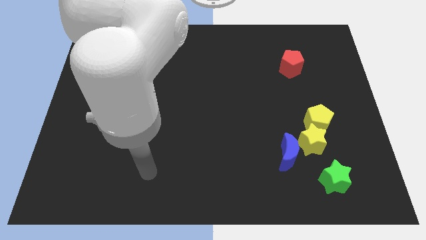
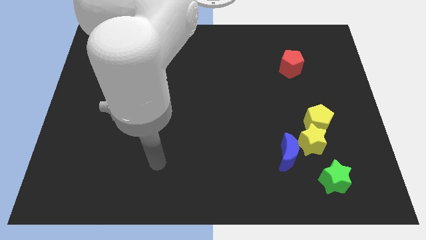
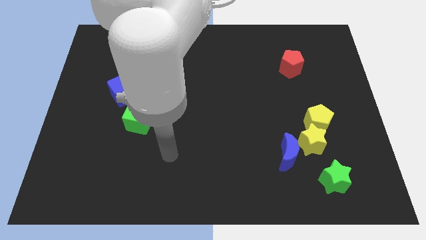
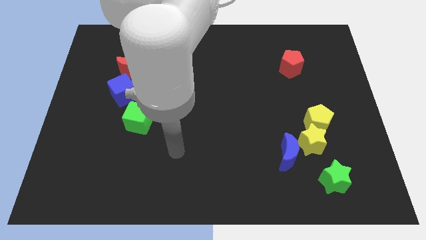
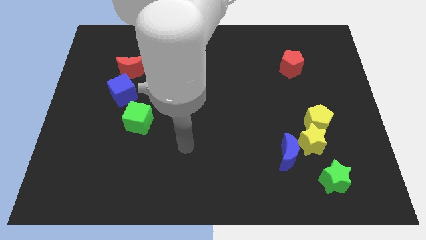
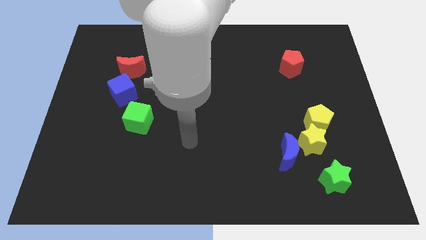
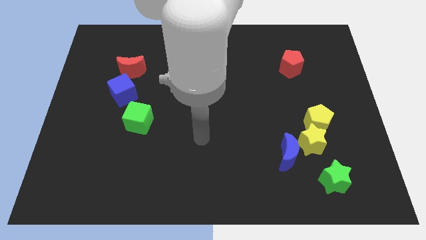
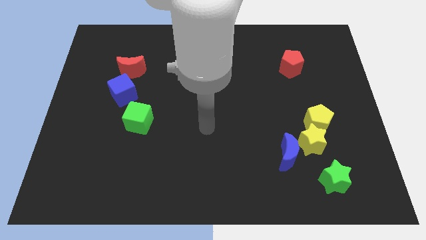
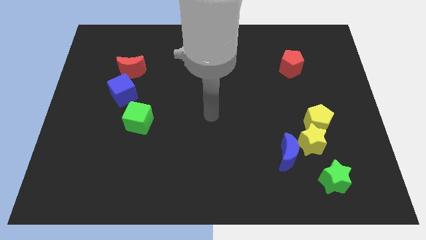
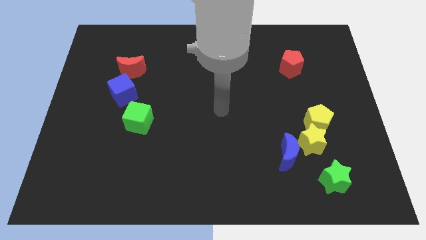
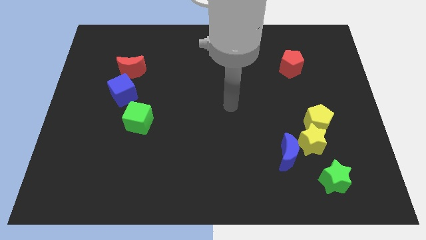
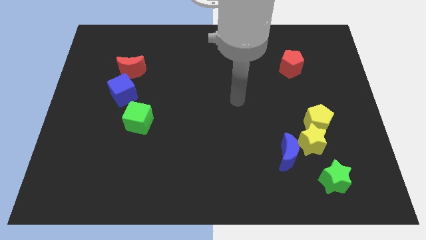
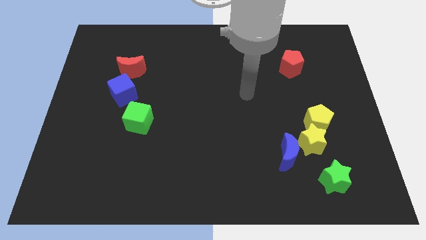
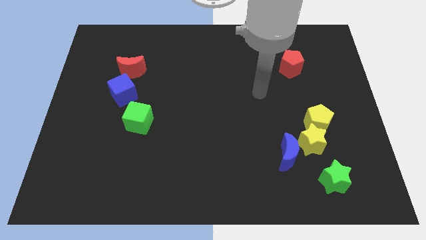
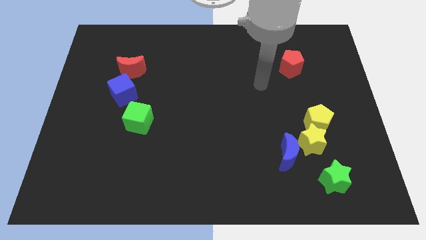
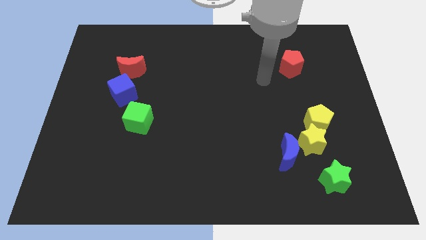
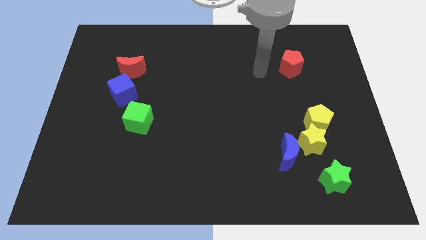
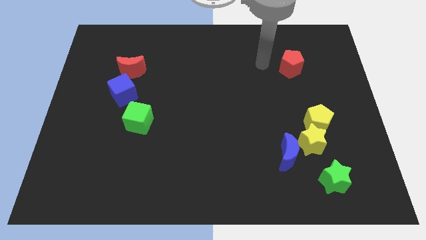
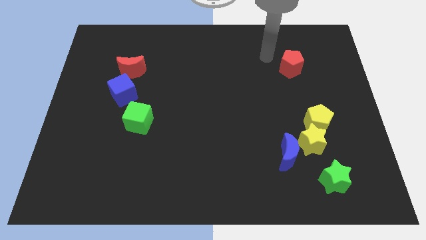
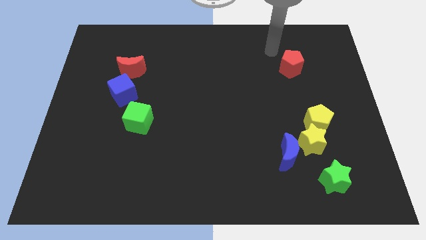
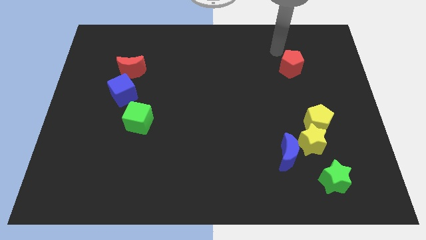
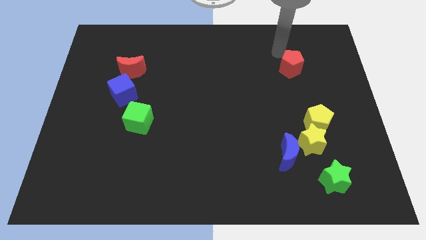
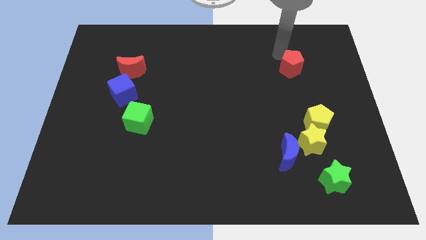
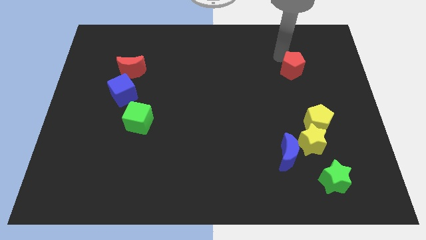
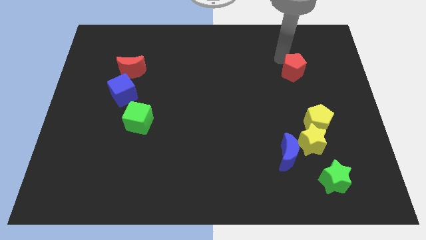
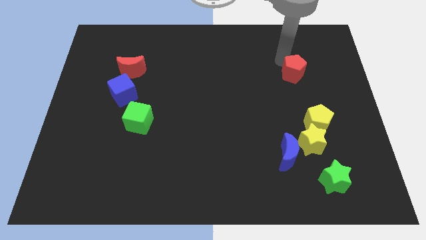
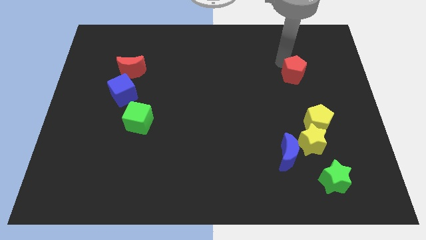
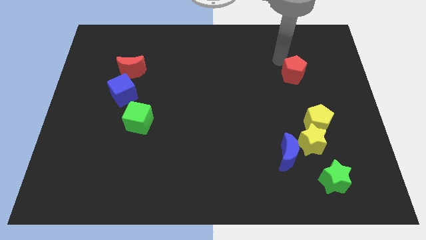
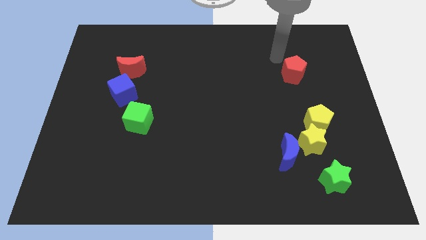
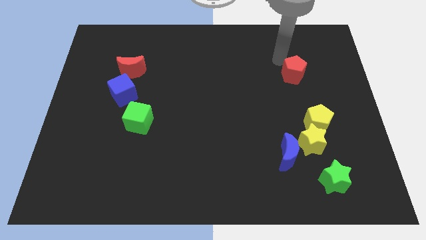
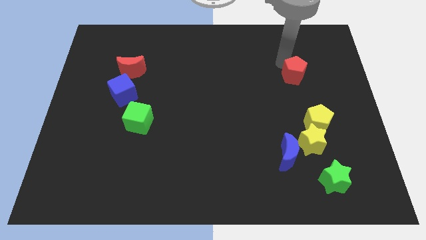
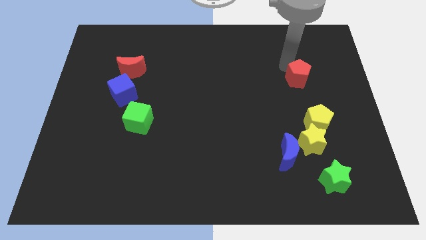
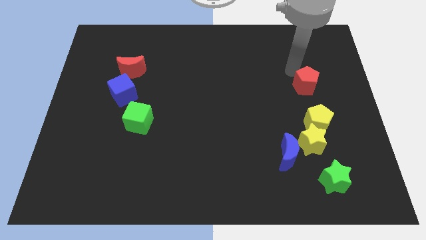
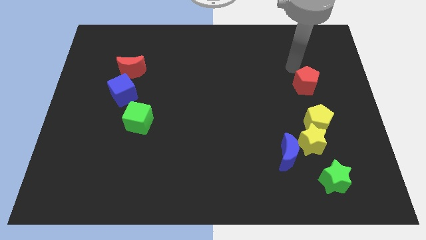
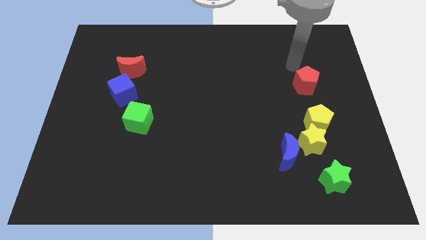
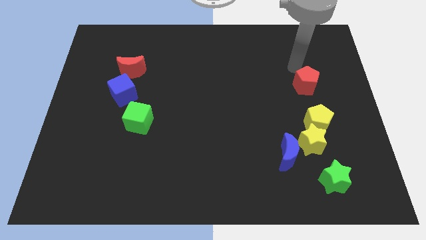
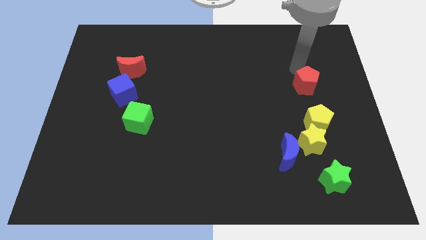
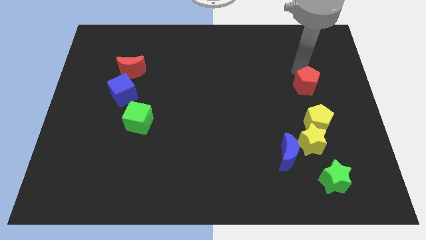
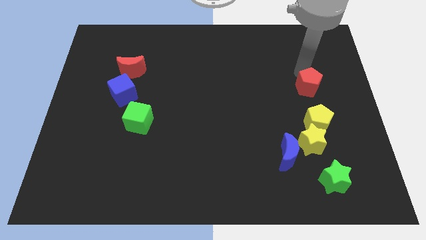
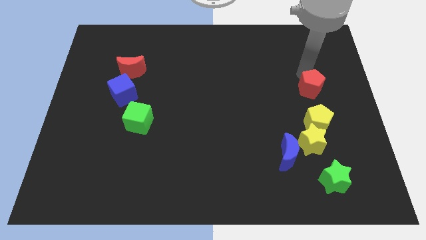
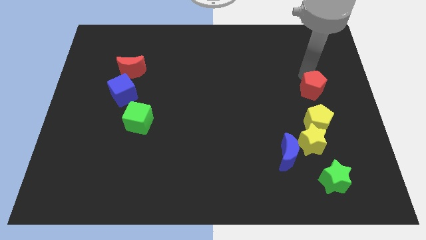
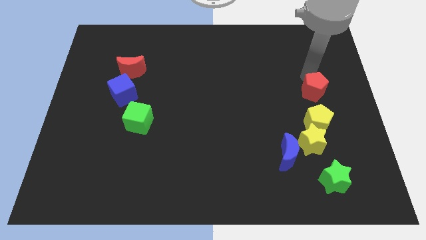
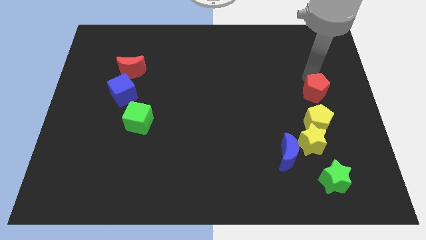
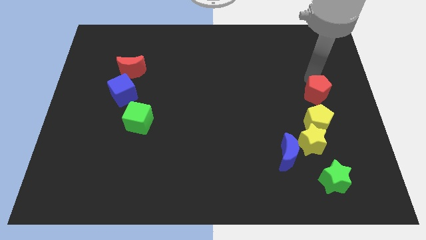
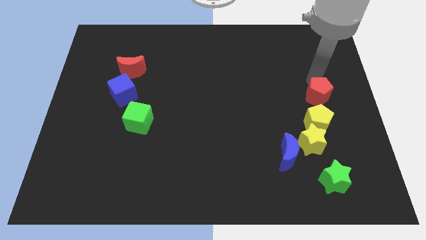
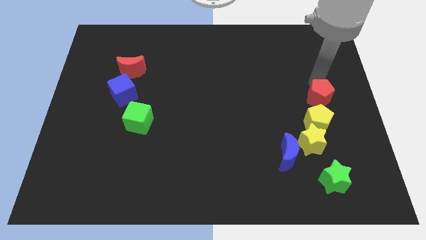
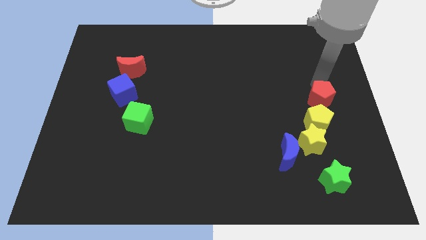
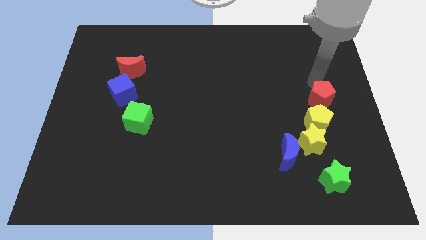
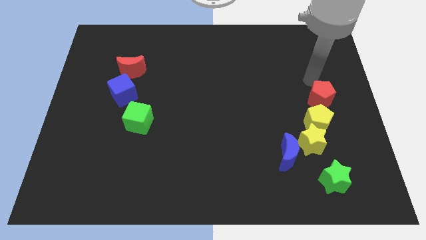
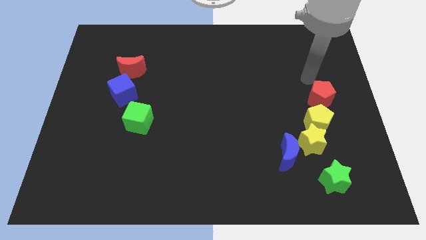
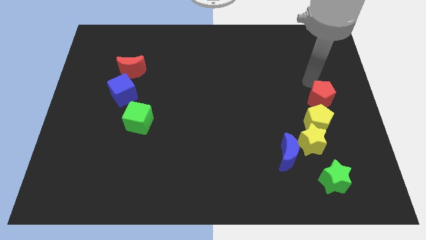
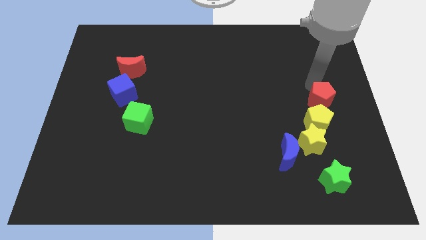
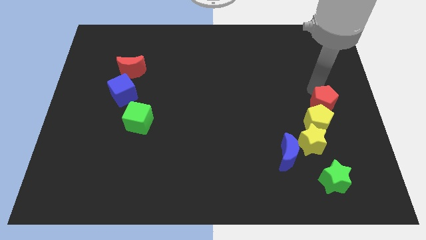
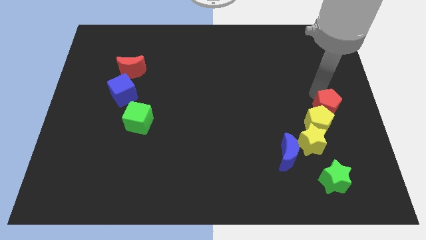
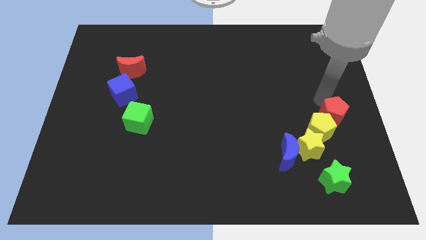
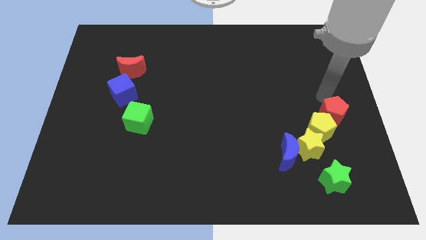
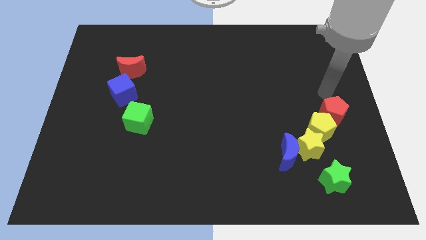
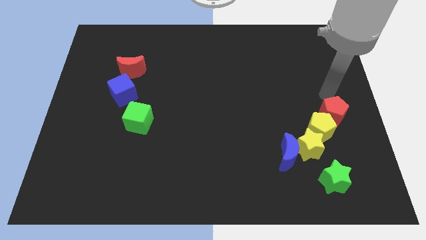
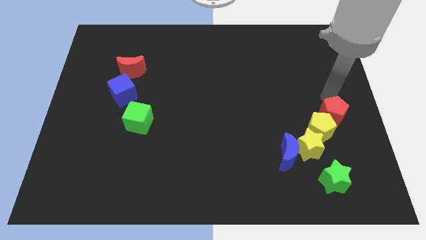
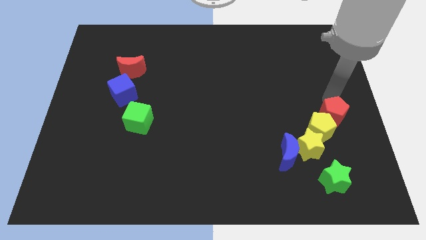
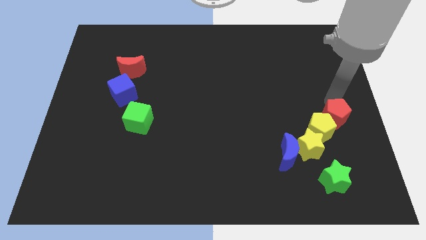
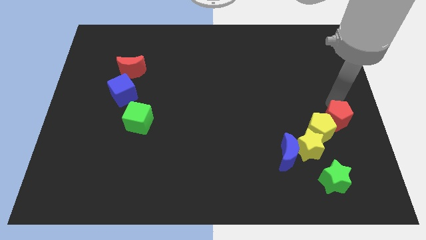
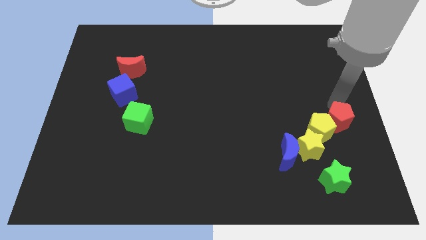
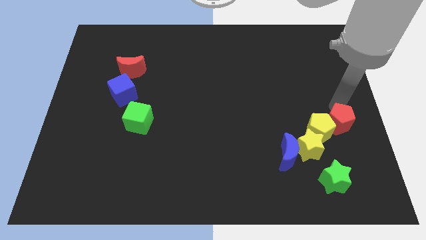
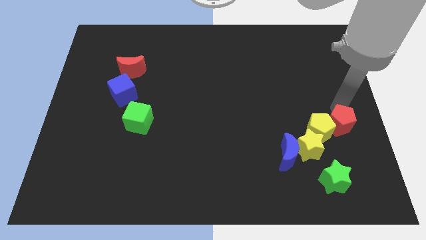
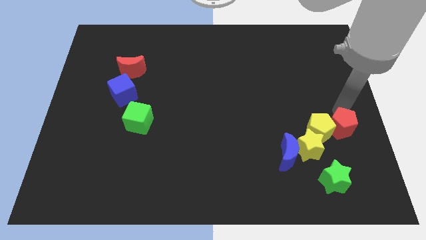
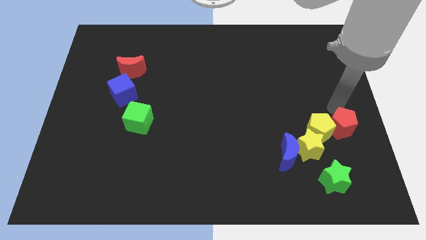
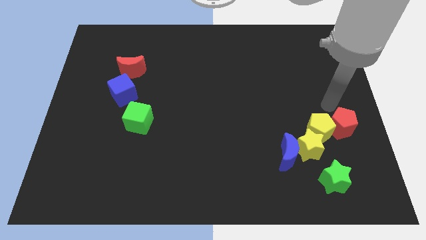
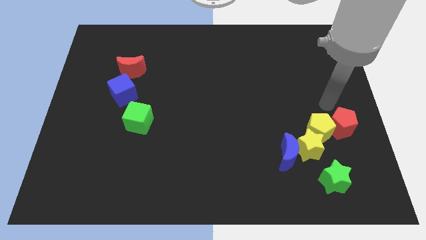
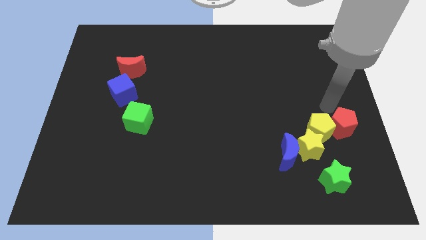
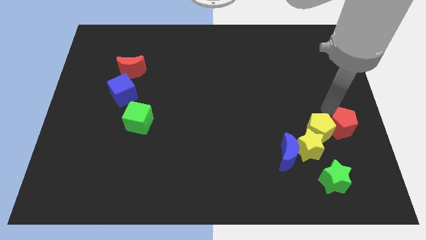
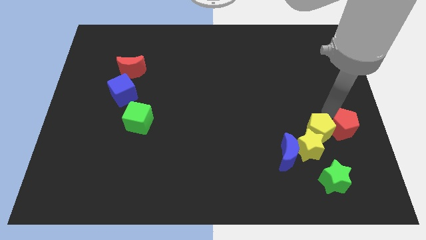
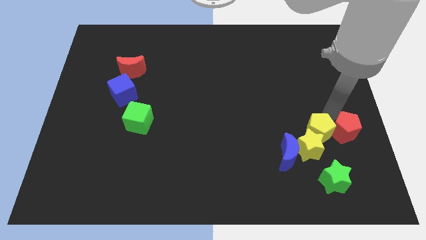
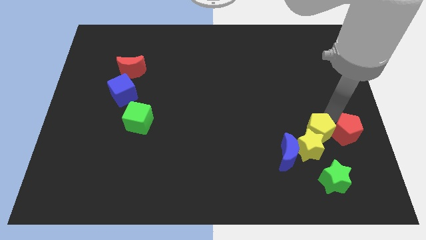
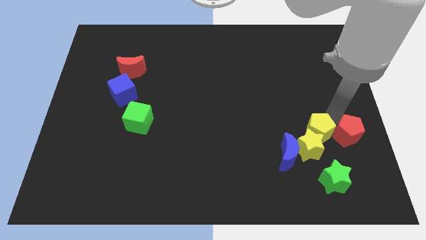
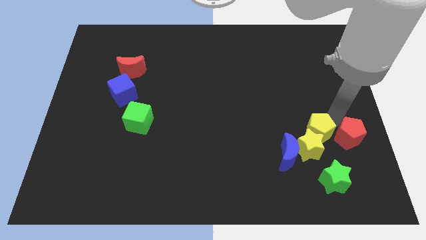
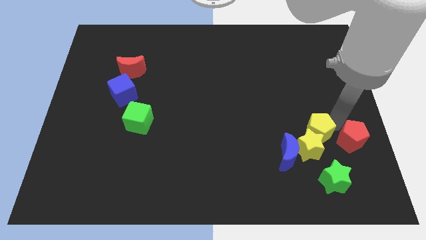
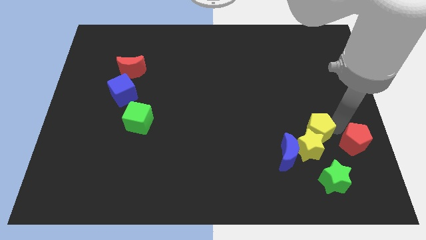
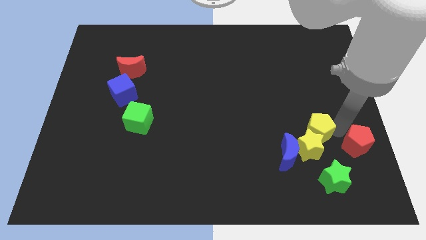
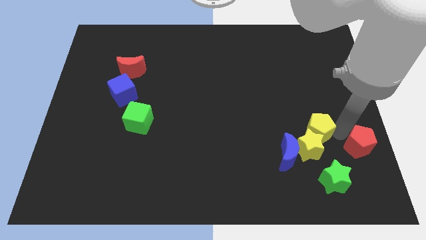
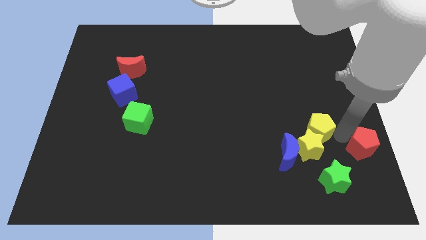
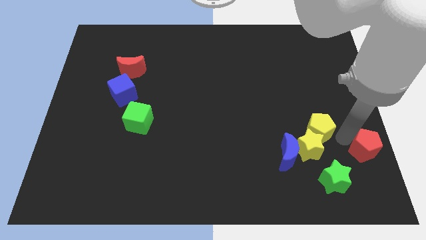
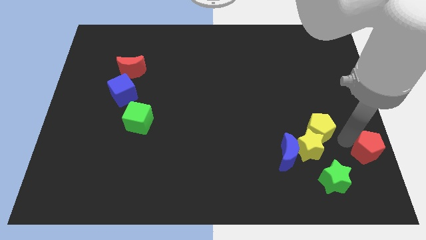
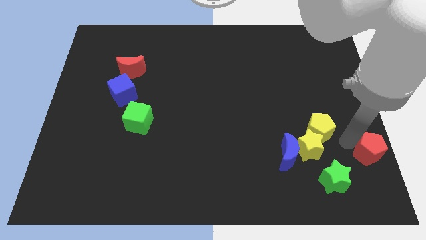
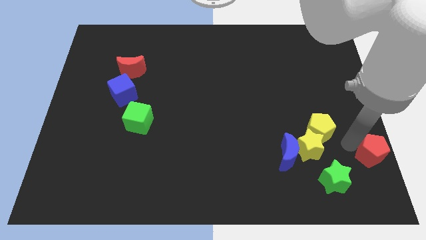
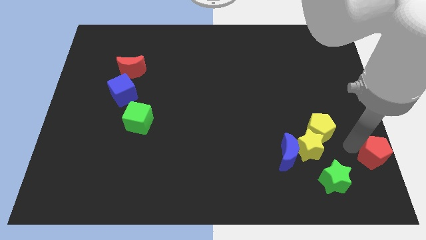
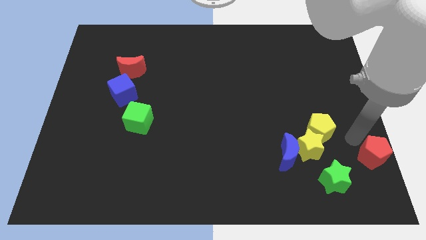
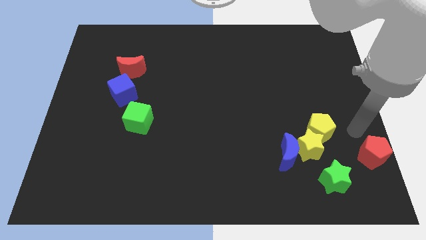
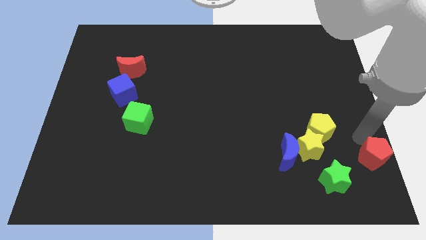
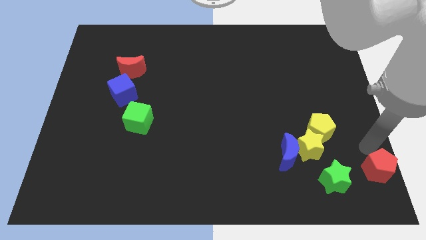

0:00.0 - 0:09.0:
put the red pentagon to the bottom right of the board
